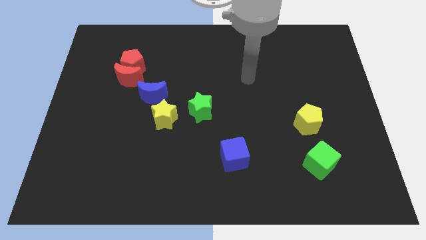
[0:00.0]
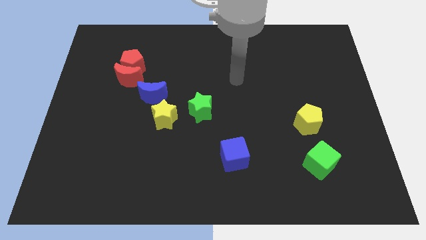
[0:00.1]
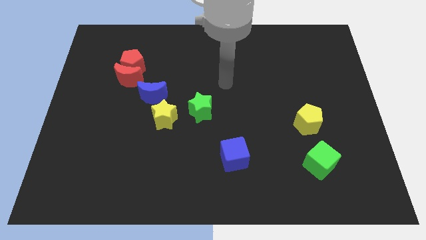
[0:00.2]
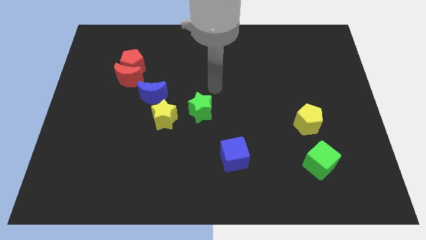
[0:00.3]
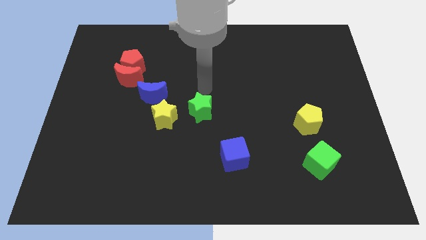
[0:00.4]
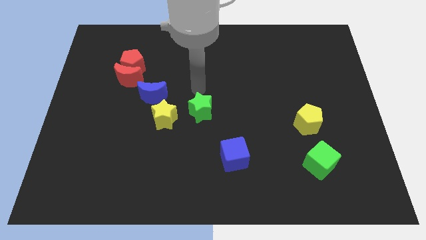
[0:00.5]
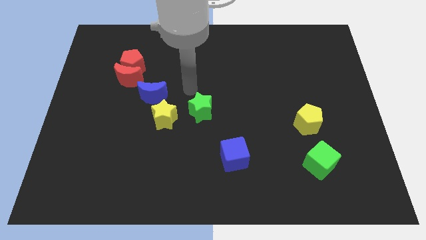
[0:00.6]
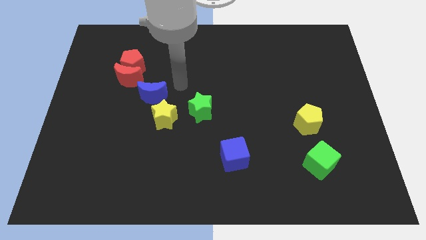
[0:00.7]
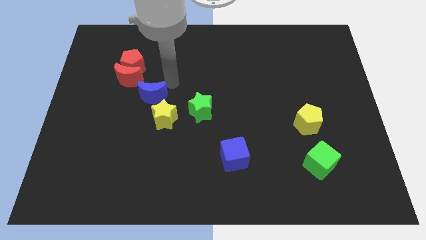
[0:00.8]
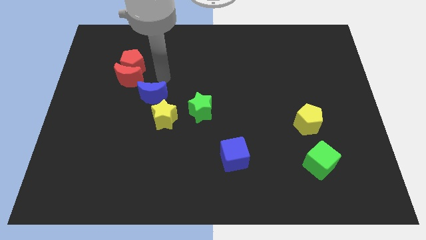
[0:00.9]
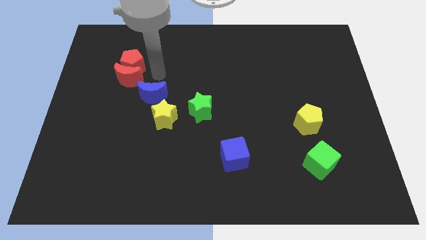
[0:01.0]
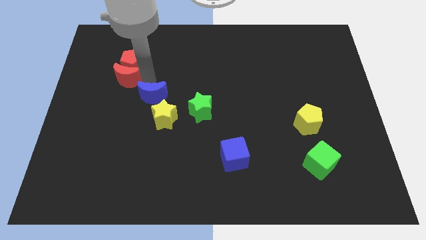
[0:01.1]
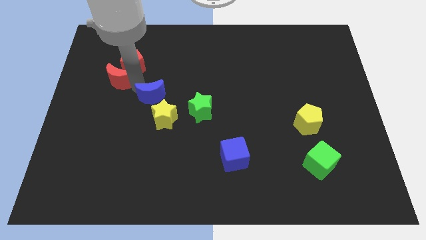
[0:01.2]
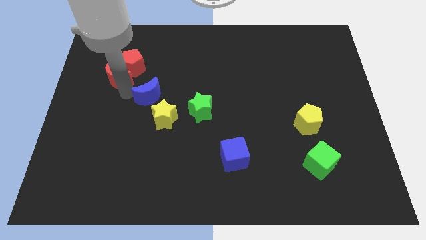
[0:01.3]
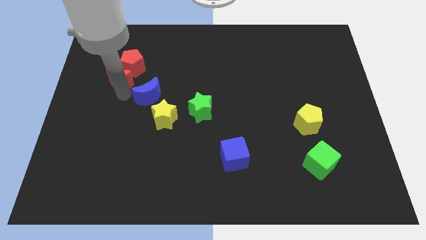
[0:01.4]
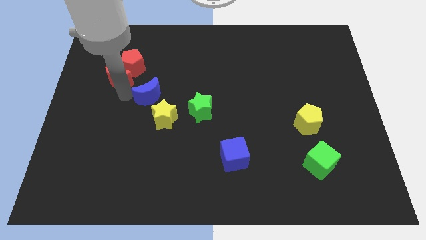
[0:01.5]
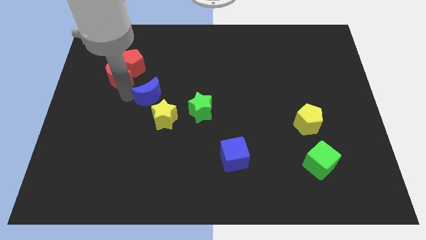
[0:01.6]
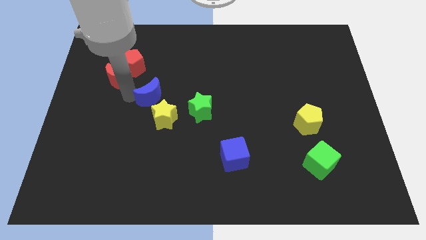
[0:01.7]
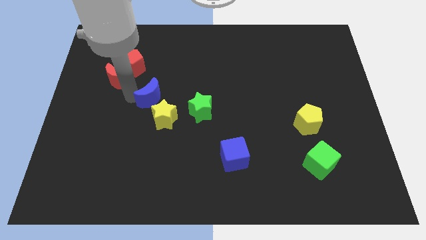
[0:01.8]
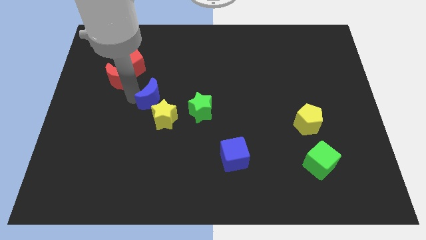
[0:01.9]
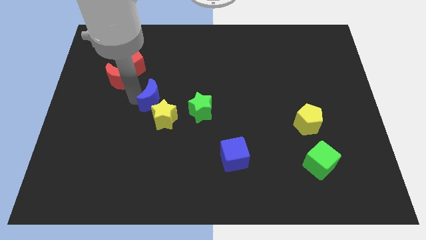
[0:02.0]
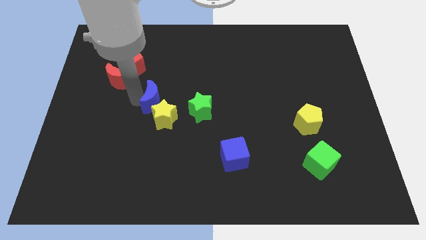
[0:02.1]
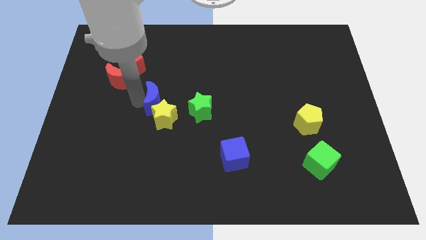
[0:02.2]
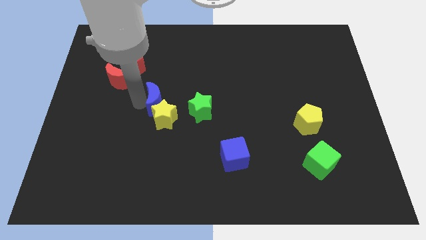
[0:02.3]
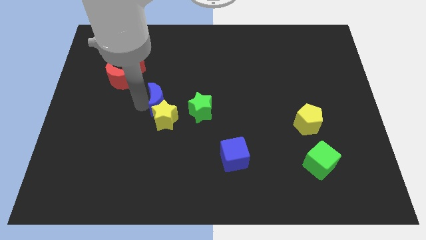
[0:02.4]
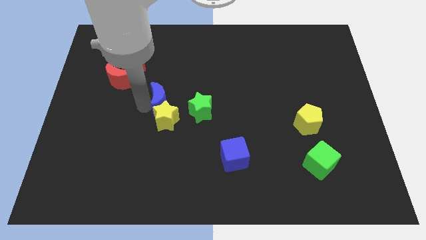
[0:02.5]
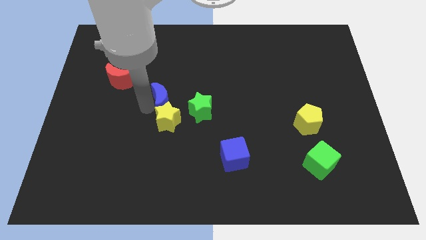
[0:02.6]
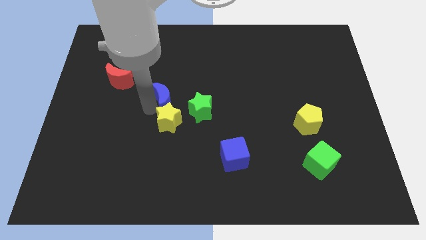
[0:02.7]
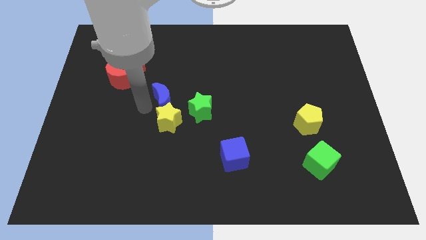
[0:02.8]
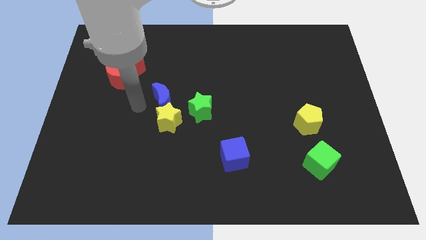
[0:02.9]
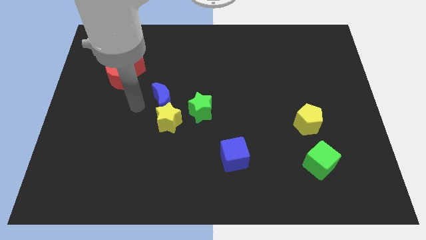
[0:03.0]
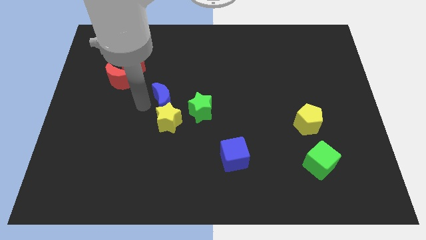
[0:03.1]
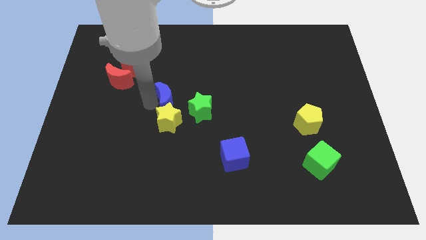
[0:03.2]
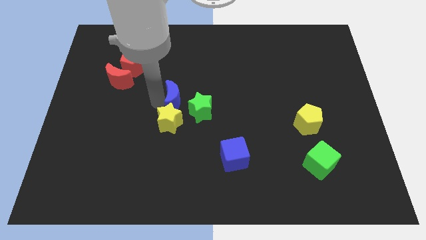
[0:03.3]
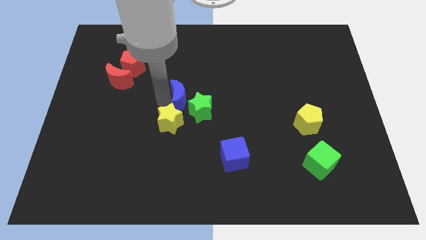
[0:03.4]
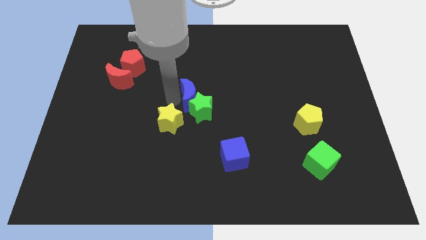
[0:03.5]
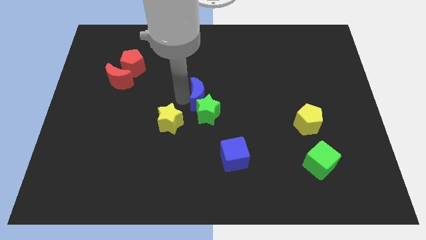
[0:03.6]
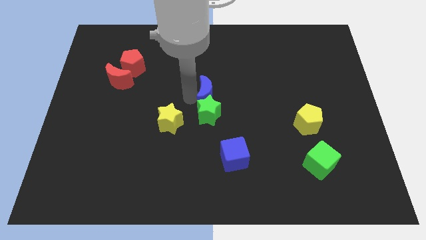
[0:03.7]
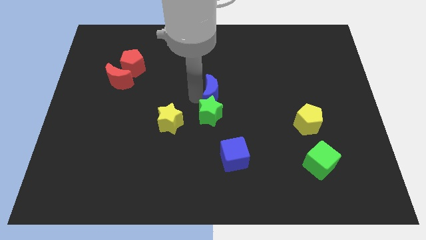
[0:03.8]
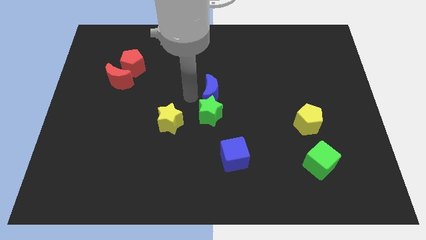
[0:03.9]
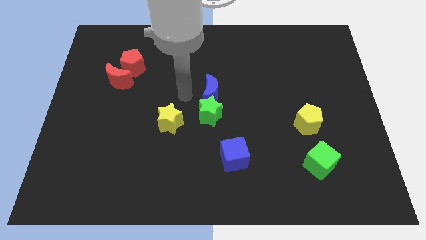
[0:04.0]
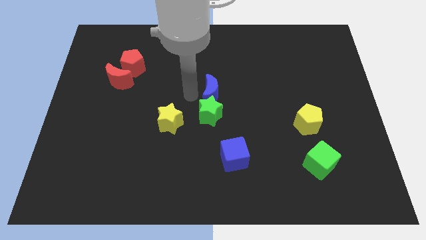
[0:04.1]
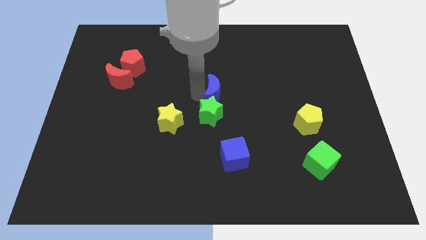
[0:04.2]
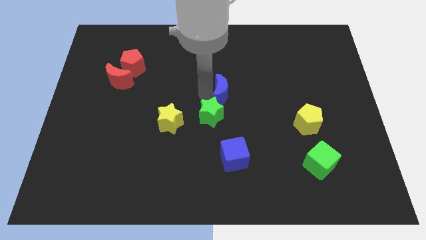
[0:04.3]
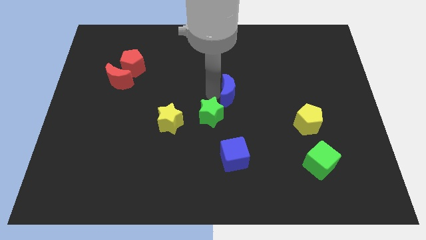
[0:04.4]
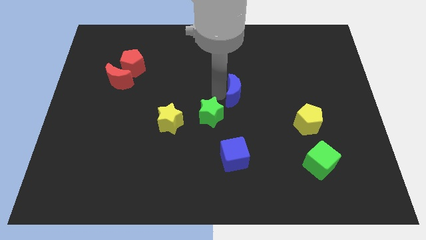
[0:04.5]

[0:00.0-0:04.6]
slide the blue moon to the right

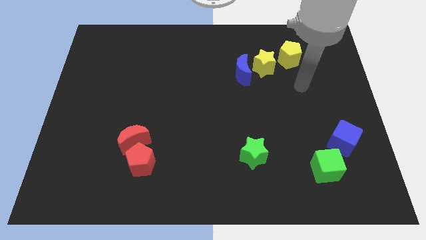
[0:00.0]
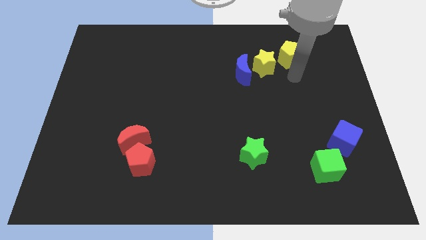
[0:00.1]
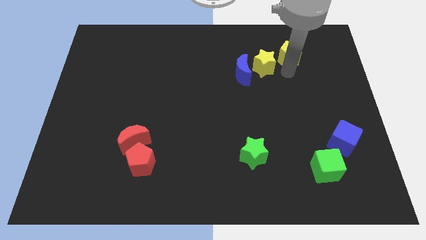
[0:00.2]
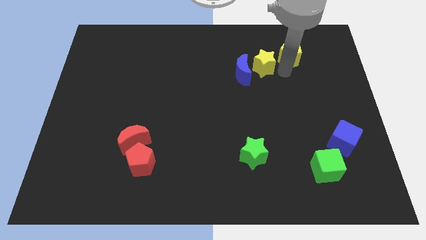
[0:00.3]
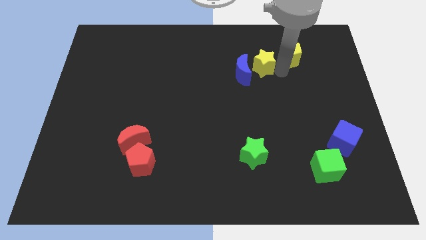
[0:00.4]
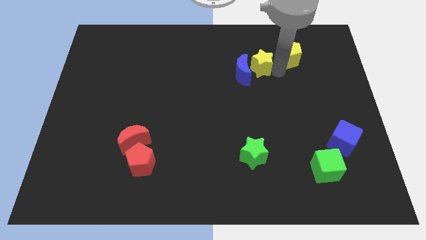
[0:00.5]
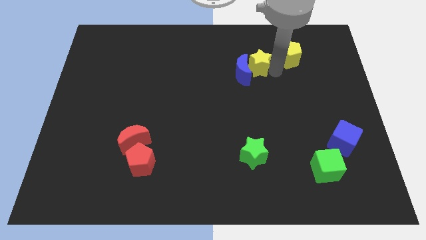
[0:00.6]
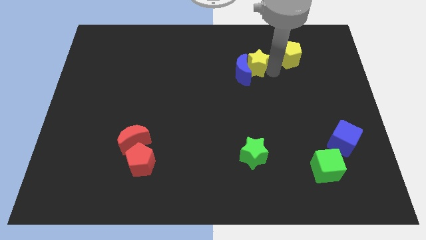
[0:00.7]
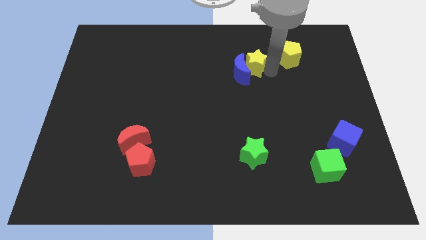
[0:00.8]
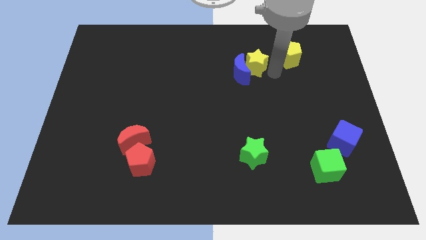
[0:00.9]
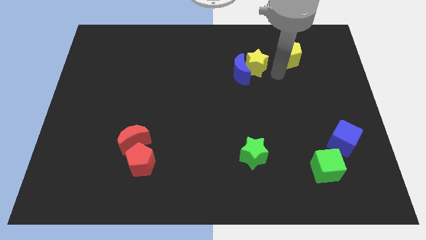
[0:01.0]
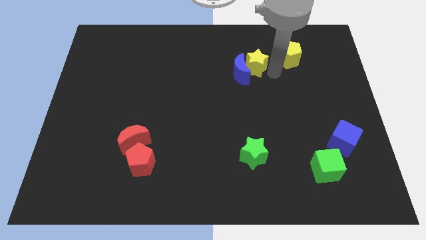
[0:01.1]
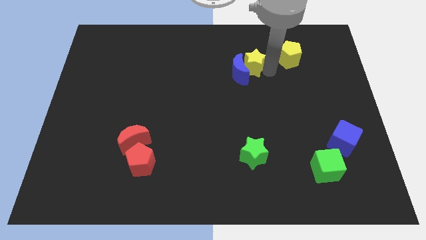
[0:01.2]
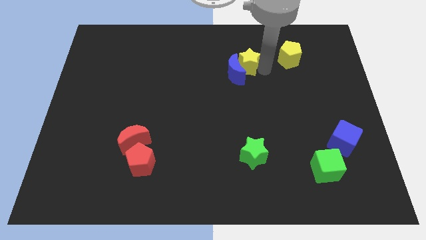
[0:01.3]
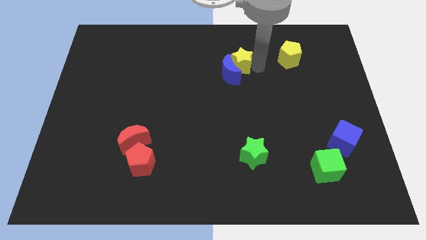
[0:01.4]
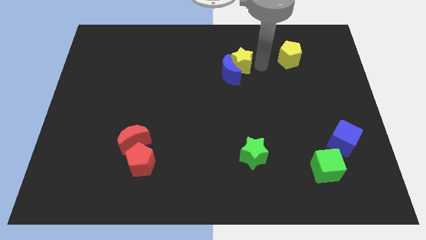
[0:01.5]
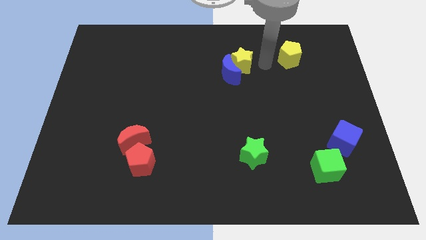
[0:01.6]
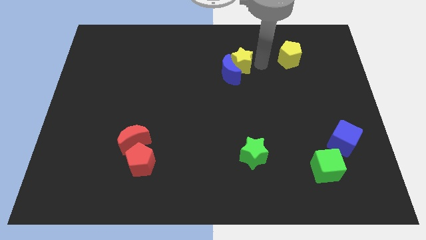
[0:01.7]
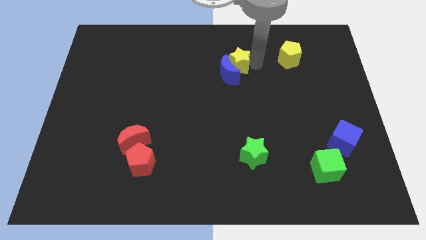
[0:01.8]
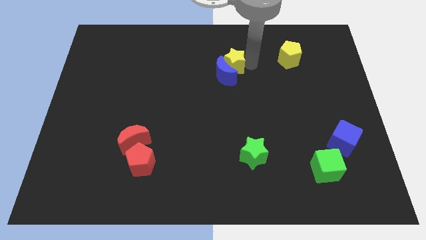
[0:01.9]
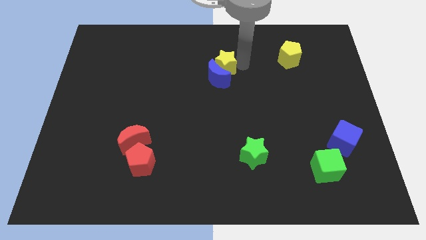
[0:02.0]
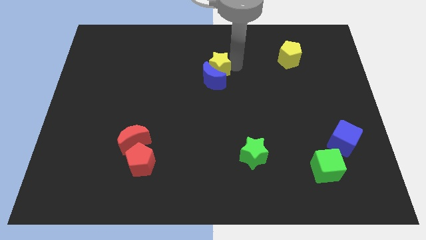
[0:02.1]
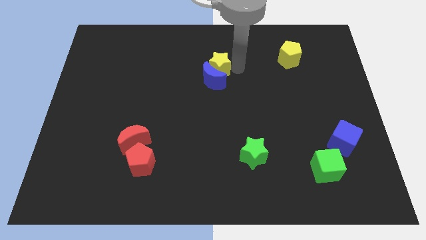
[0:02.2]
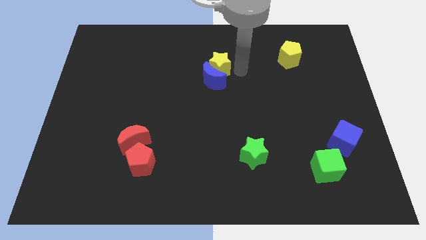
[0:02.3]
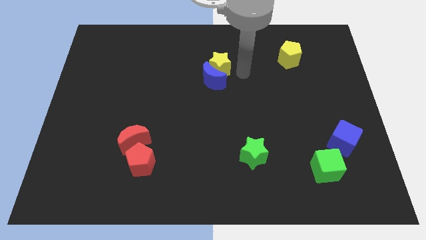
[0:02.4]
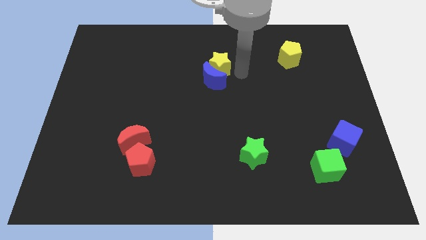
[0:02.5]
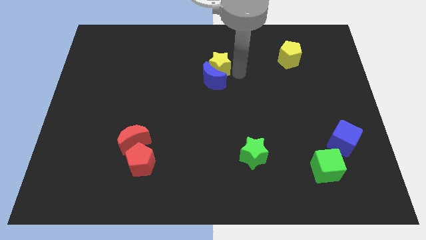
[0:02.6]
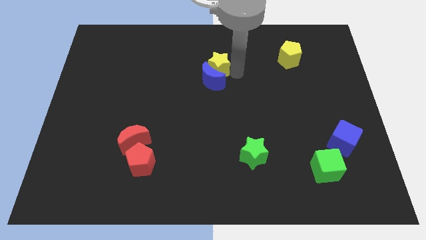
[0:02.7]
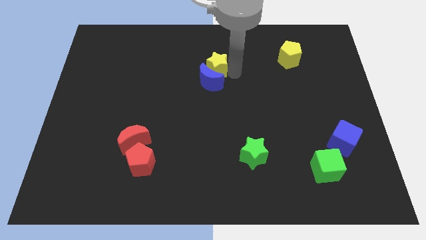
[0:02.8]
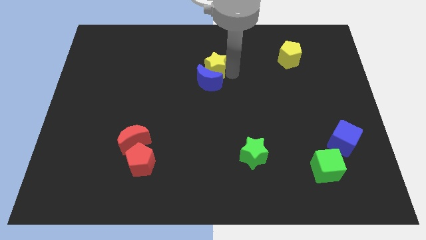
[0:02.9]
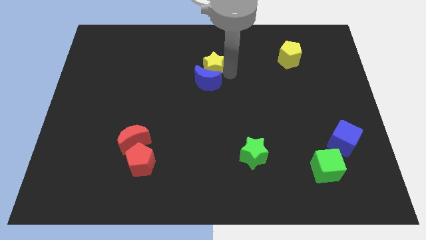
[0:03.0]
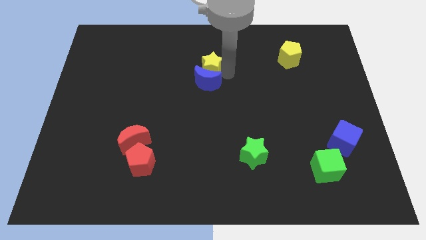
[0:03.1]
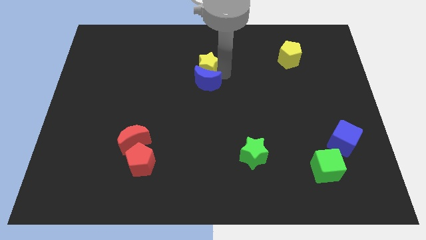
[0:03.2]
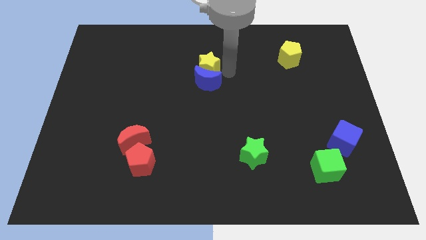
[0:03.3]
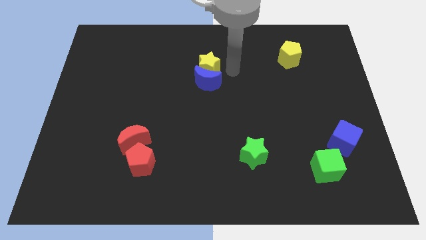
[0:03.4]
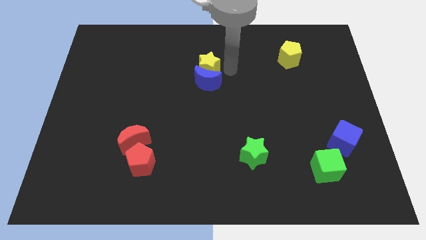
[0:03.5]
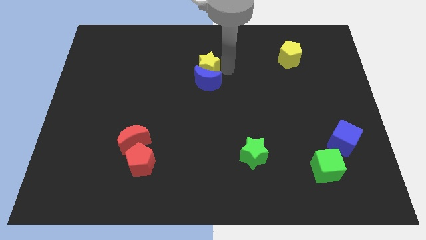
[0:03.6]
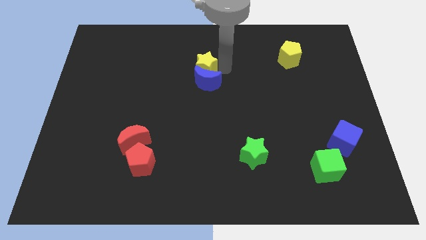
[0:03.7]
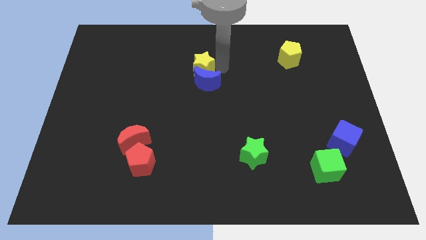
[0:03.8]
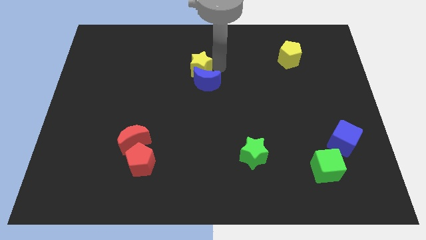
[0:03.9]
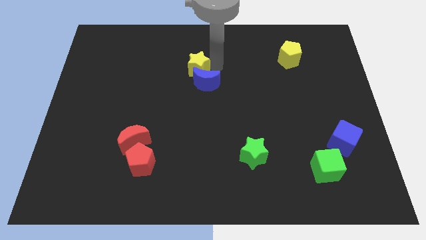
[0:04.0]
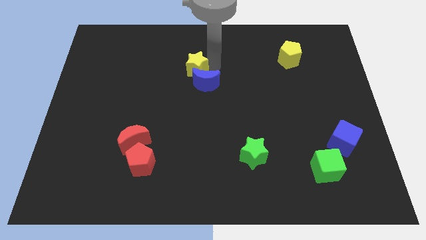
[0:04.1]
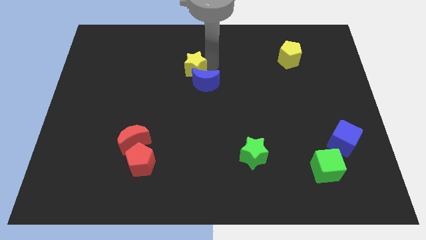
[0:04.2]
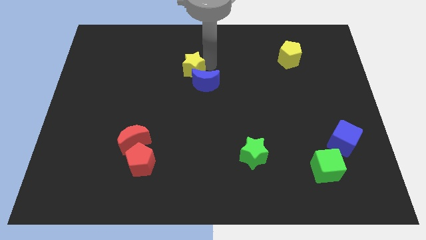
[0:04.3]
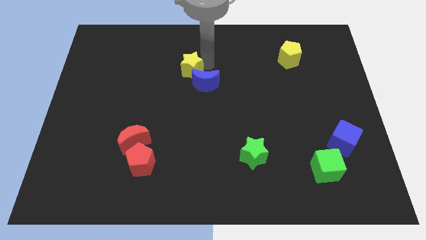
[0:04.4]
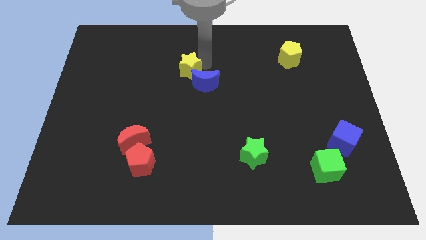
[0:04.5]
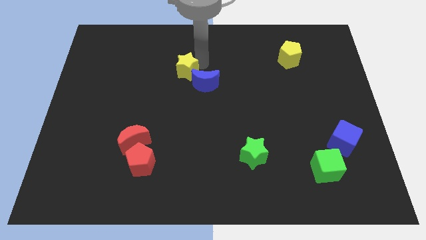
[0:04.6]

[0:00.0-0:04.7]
move the yellow star to the left
